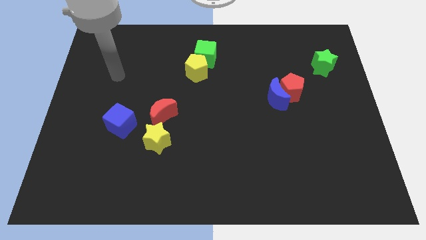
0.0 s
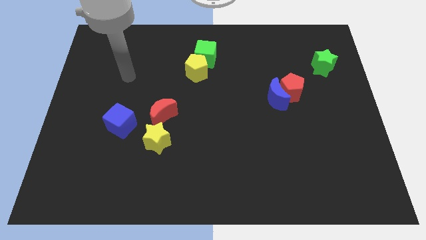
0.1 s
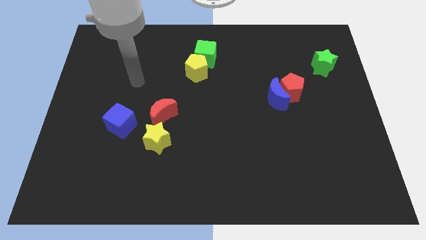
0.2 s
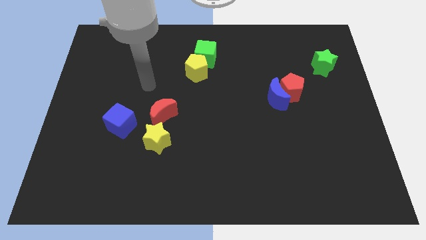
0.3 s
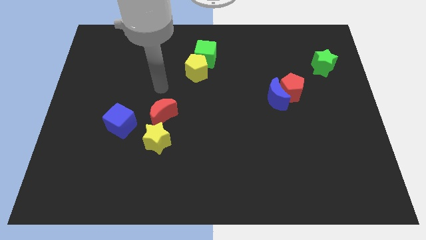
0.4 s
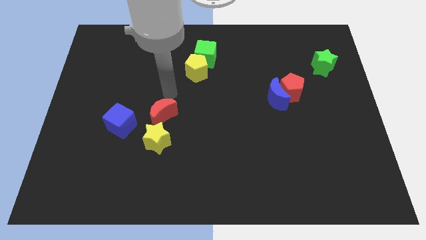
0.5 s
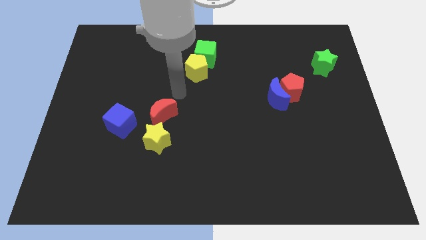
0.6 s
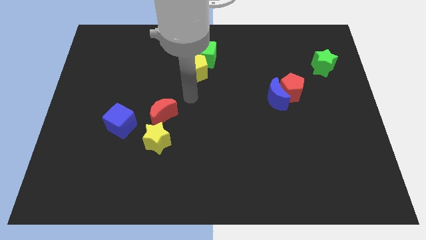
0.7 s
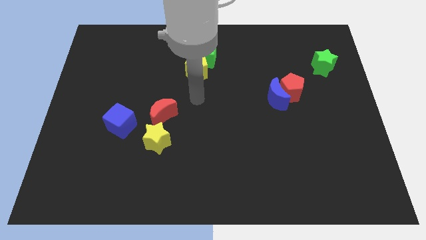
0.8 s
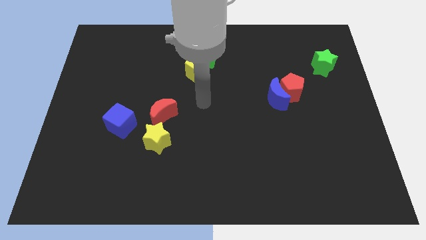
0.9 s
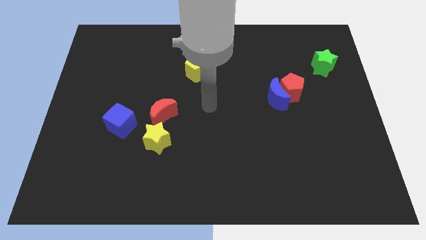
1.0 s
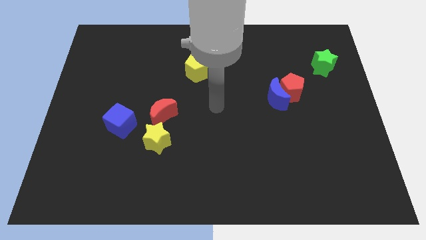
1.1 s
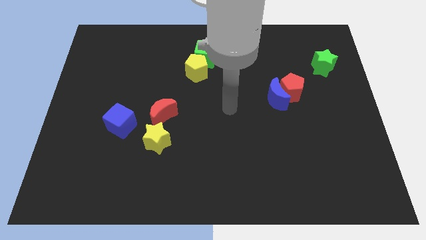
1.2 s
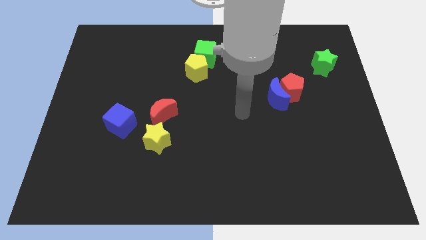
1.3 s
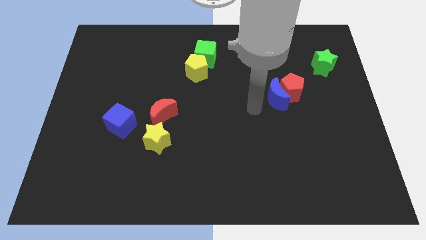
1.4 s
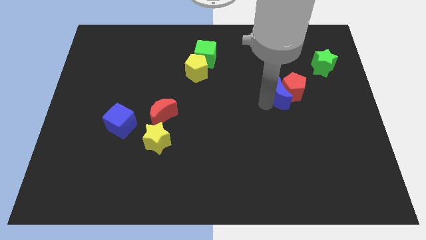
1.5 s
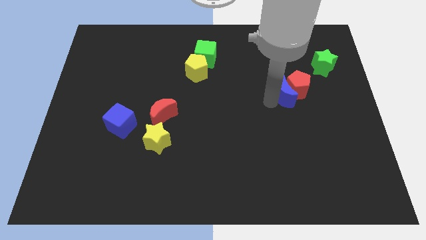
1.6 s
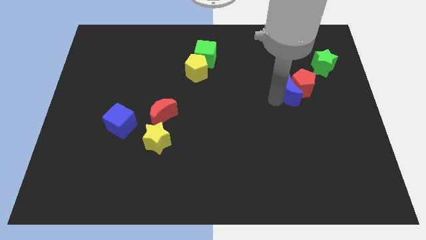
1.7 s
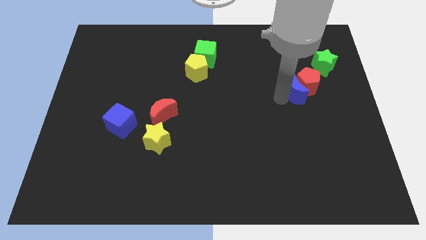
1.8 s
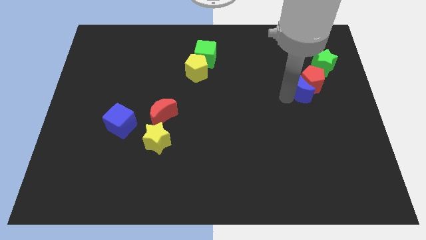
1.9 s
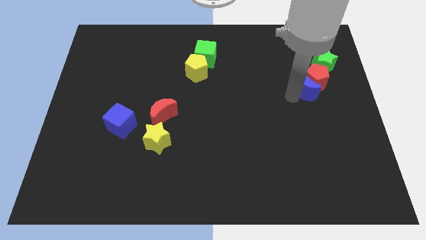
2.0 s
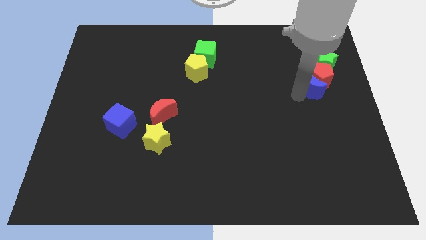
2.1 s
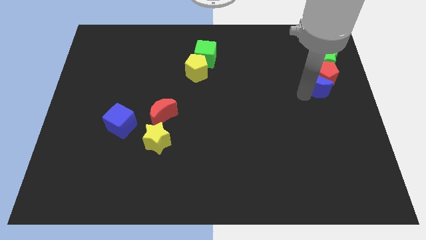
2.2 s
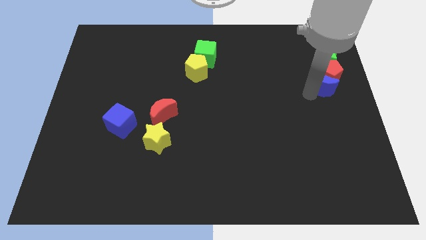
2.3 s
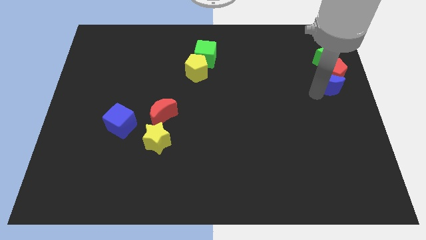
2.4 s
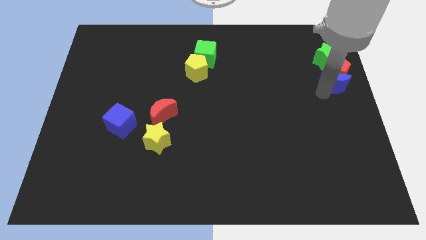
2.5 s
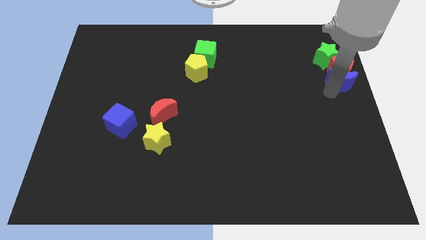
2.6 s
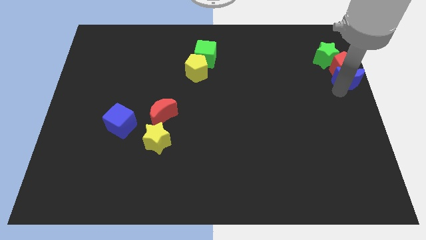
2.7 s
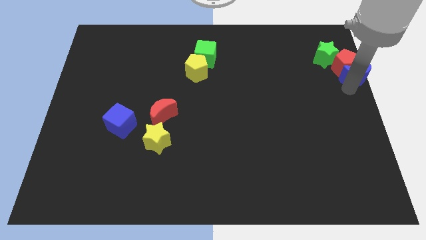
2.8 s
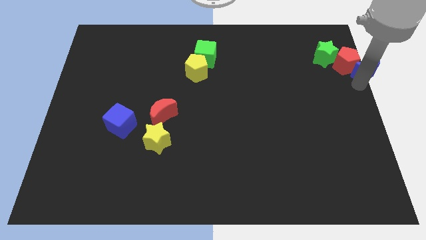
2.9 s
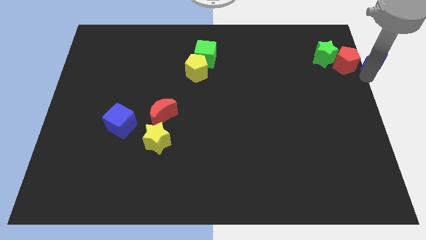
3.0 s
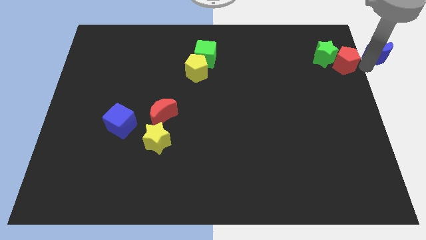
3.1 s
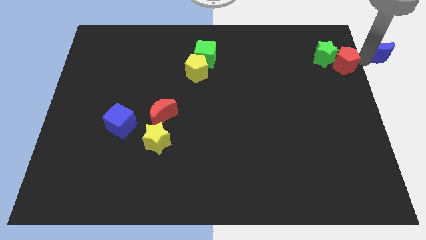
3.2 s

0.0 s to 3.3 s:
separate the red pentagon from the blue moon

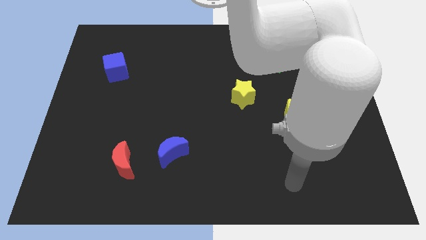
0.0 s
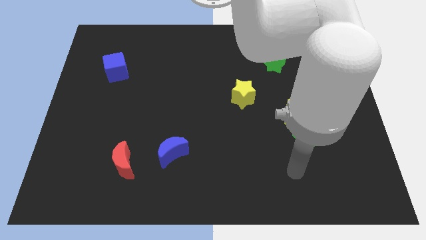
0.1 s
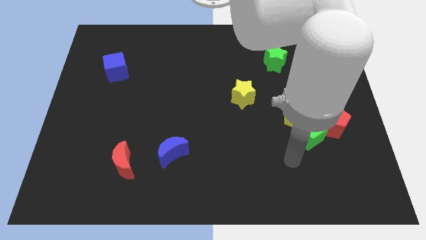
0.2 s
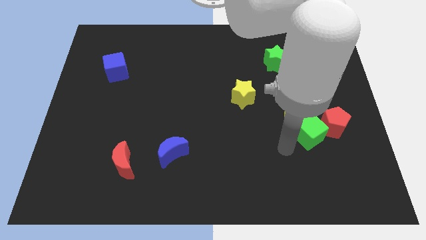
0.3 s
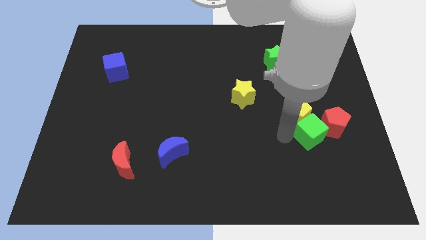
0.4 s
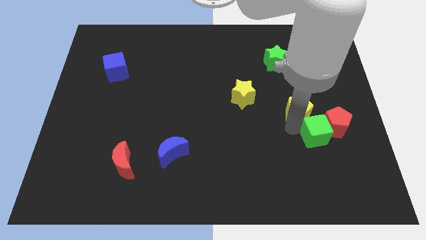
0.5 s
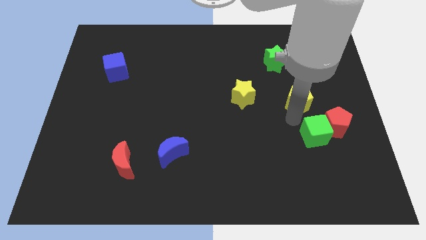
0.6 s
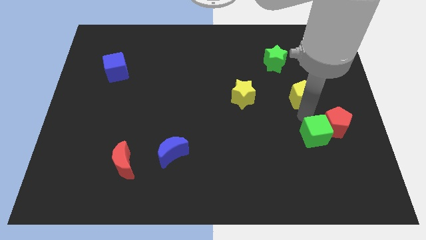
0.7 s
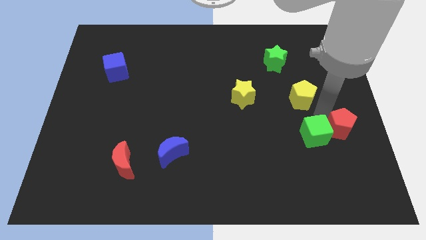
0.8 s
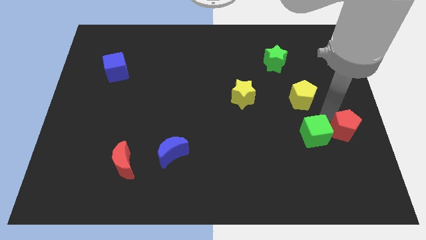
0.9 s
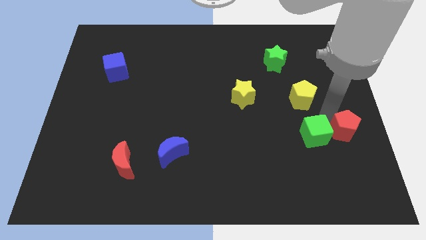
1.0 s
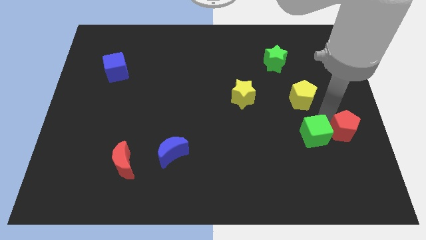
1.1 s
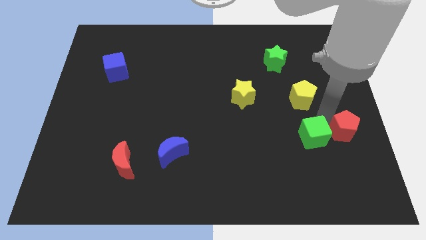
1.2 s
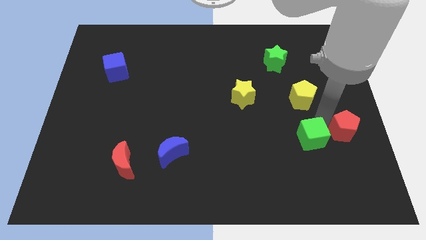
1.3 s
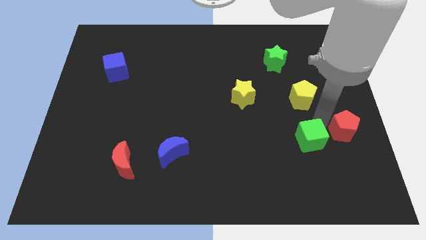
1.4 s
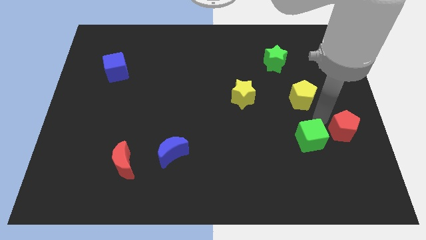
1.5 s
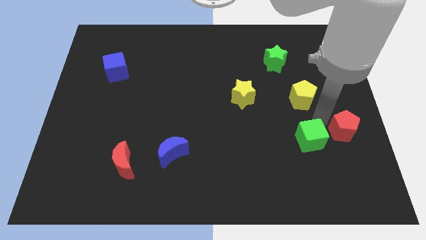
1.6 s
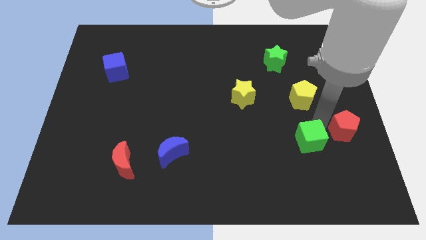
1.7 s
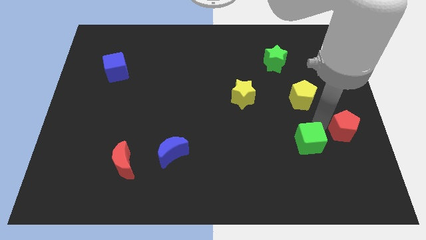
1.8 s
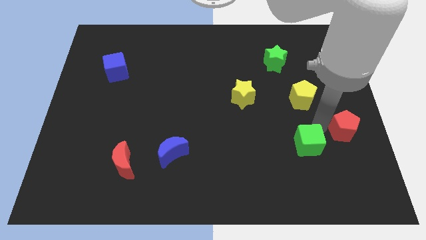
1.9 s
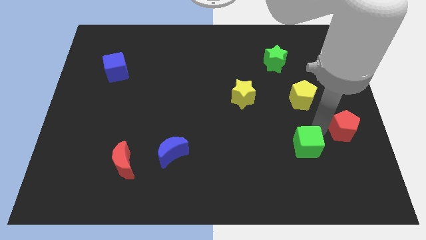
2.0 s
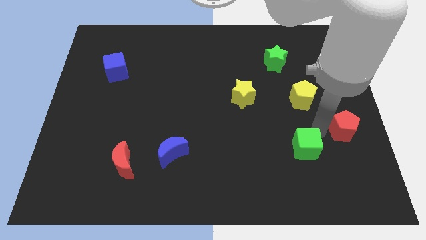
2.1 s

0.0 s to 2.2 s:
separate the green cube from the yellow pentagon and red pentagon

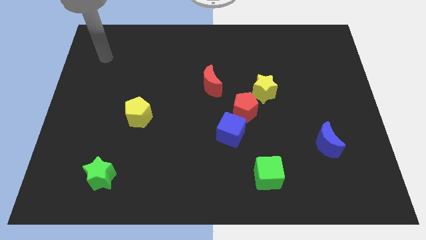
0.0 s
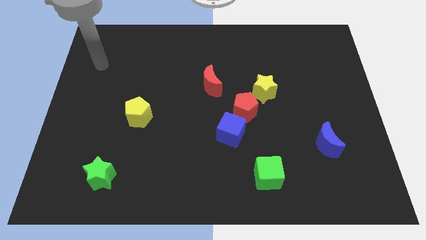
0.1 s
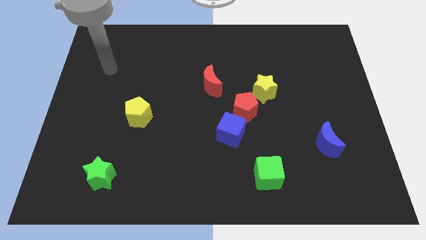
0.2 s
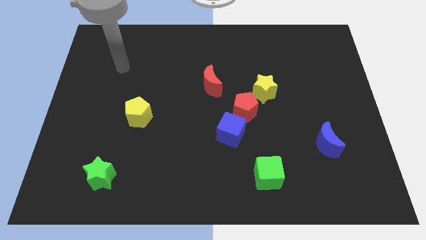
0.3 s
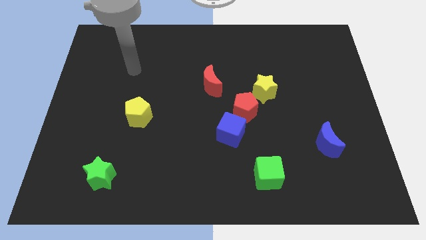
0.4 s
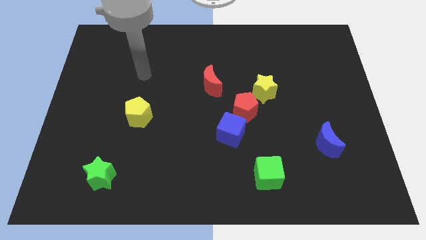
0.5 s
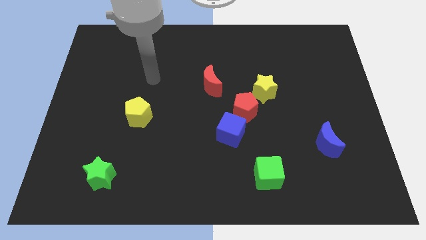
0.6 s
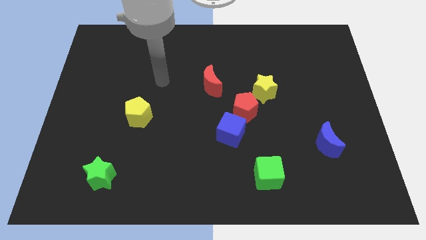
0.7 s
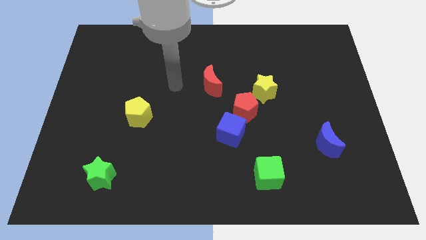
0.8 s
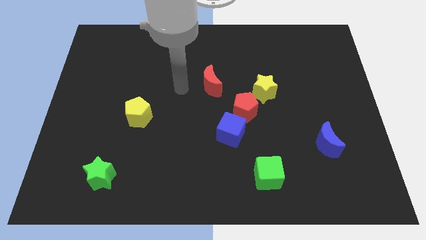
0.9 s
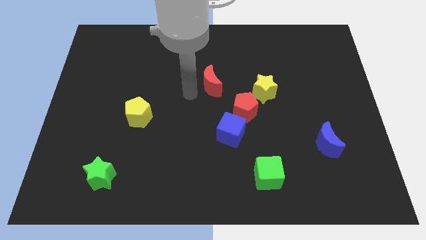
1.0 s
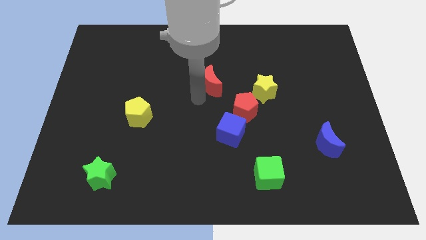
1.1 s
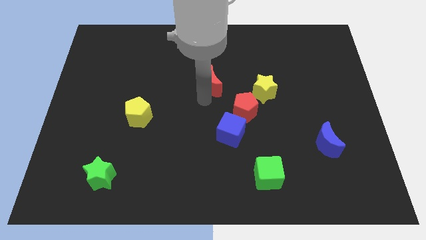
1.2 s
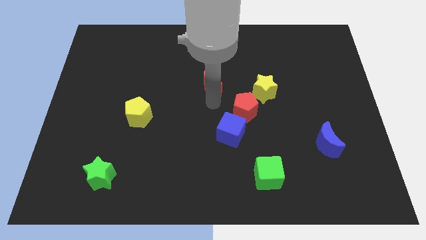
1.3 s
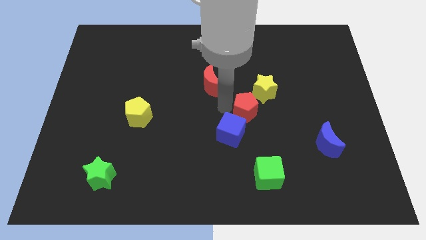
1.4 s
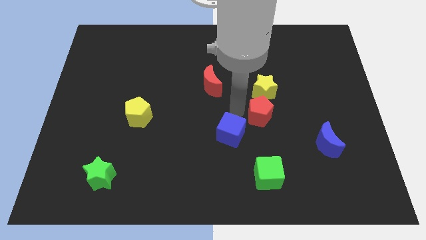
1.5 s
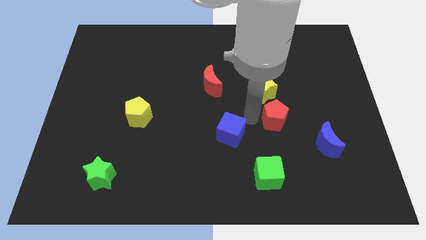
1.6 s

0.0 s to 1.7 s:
move the blue cube away from the red pentagon

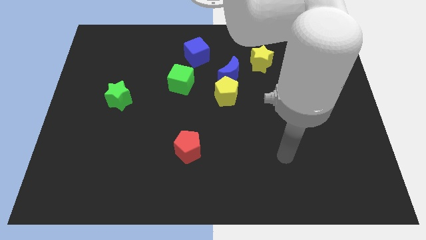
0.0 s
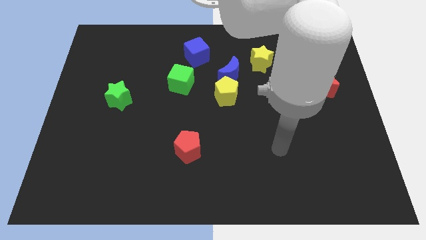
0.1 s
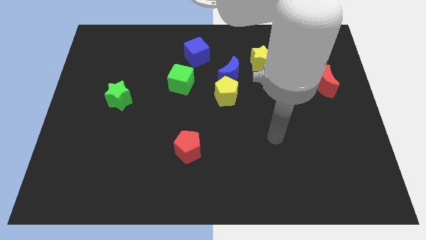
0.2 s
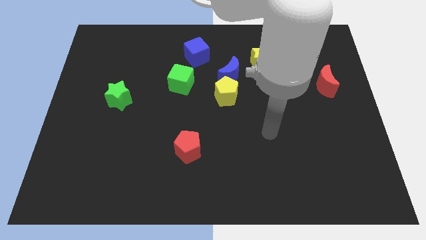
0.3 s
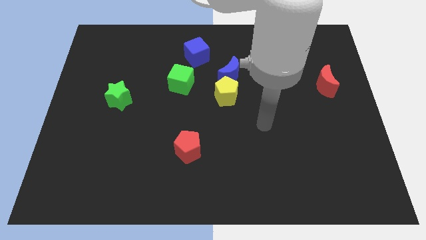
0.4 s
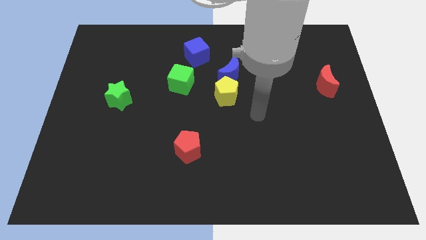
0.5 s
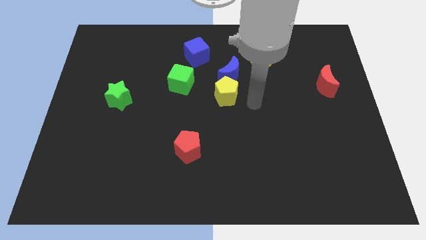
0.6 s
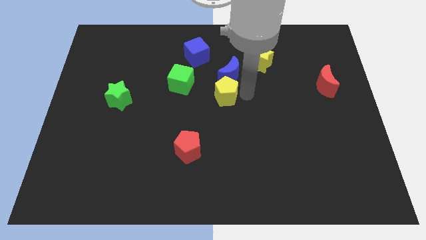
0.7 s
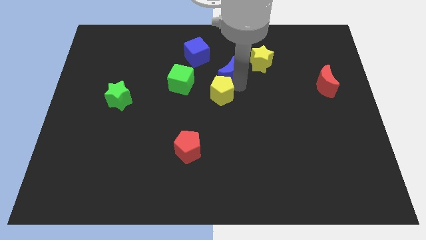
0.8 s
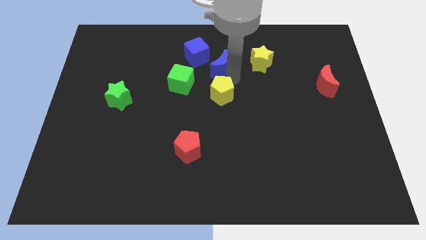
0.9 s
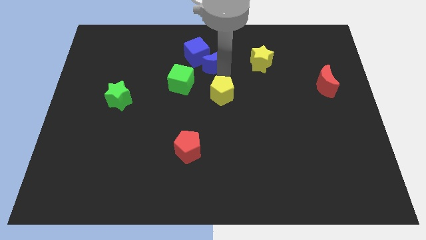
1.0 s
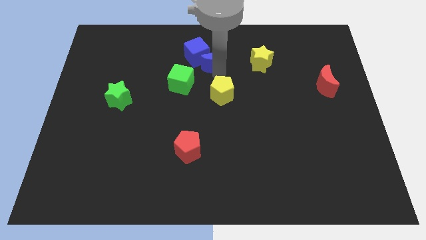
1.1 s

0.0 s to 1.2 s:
separate the yellow pentagon from the blue moon

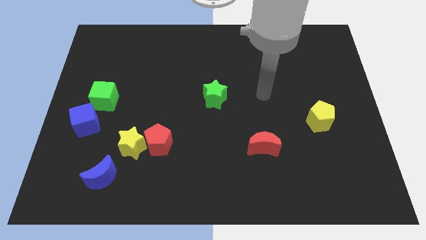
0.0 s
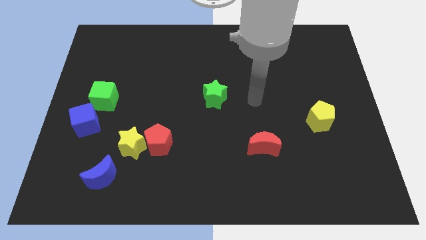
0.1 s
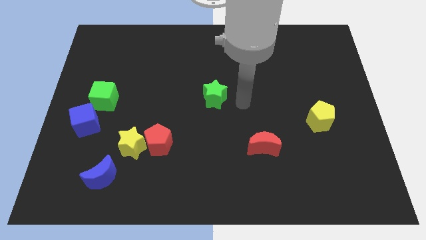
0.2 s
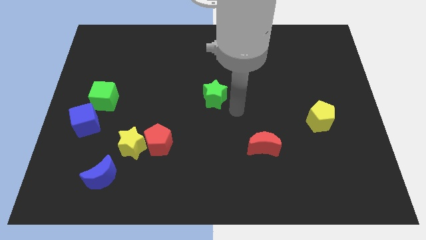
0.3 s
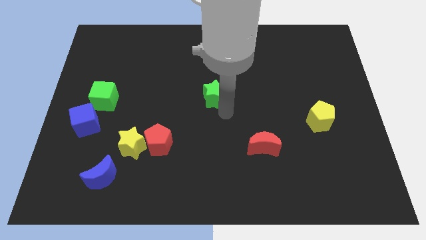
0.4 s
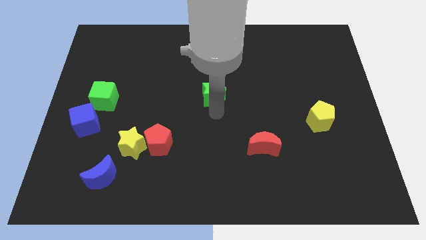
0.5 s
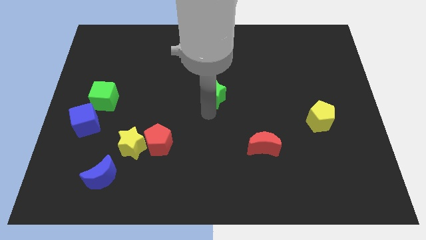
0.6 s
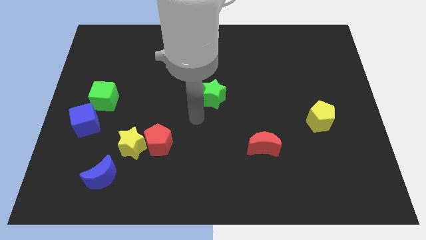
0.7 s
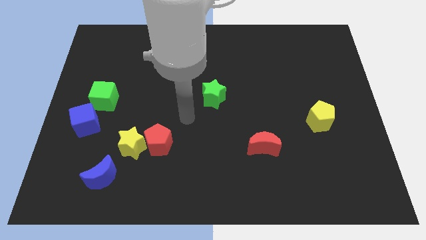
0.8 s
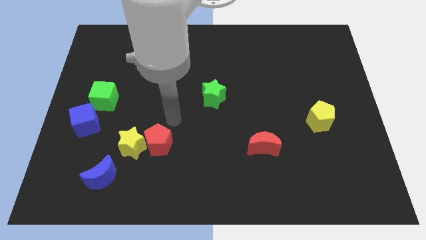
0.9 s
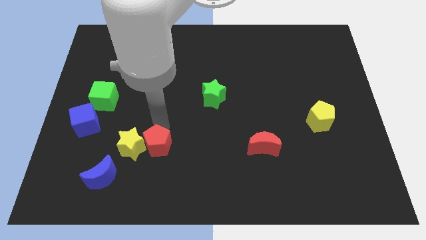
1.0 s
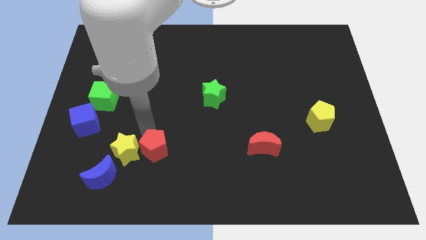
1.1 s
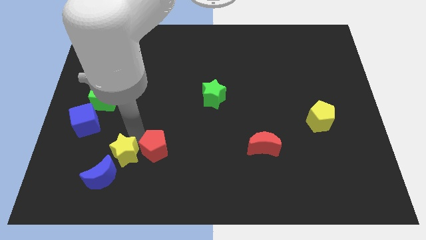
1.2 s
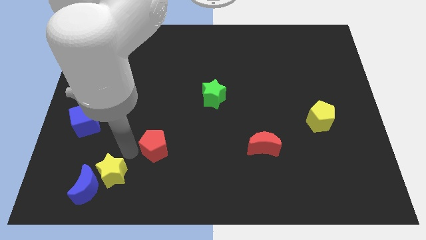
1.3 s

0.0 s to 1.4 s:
pull the red pentagon apart from the yellow star
